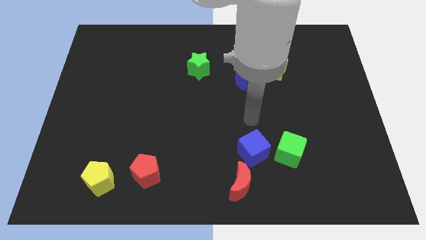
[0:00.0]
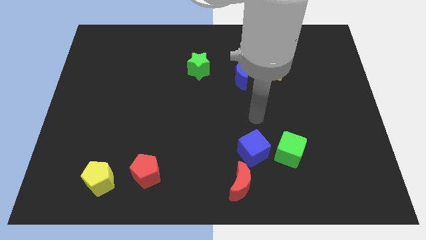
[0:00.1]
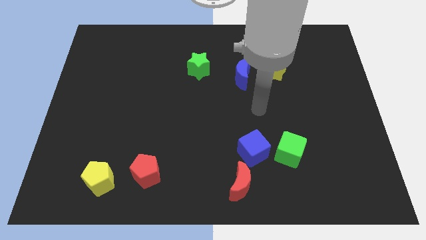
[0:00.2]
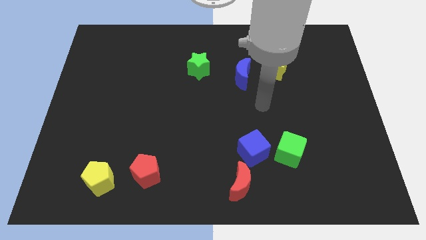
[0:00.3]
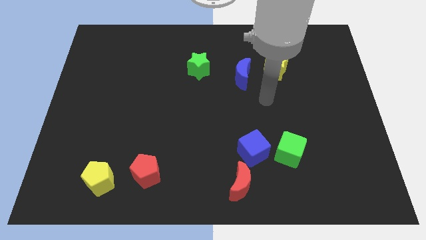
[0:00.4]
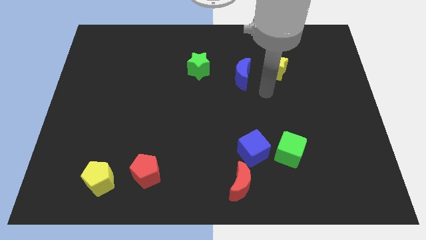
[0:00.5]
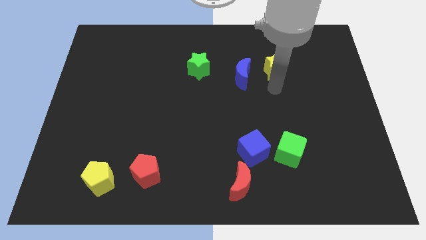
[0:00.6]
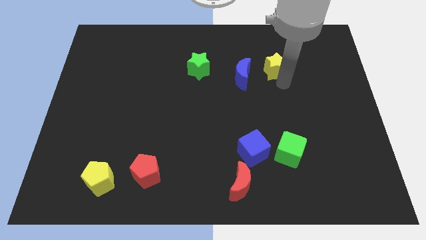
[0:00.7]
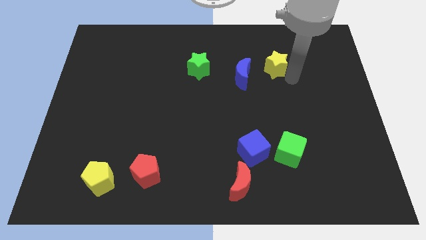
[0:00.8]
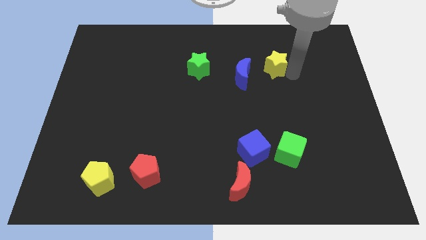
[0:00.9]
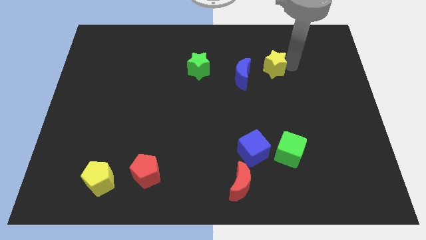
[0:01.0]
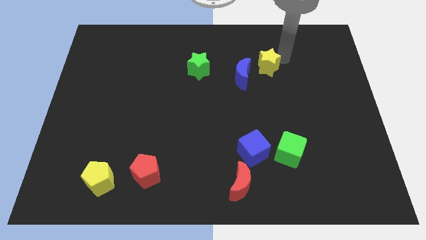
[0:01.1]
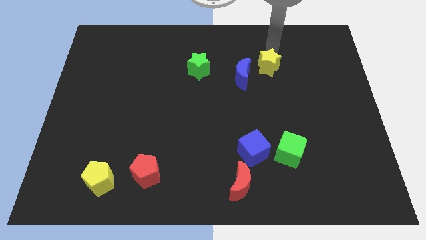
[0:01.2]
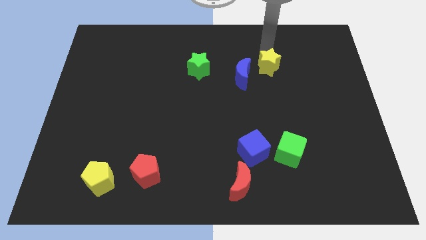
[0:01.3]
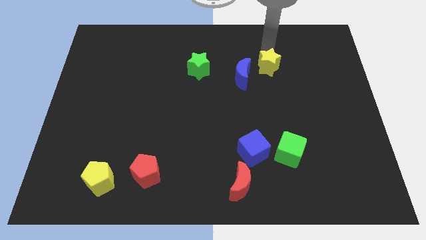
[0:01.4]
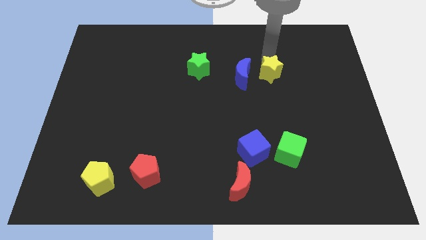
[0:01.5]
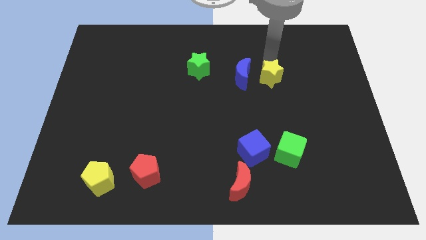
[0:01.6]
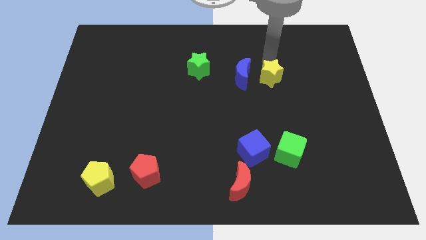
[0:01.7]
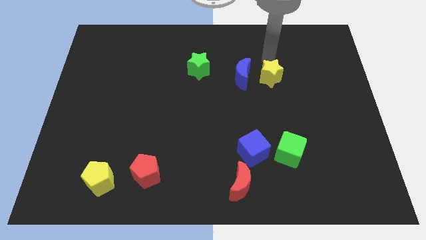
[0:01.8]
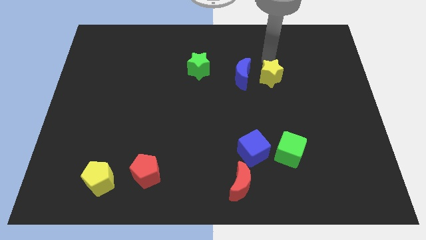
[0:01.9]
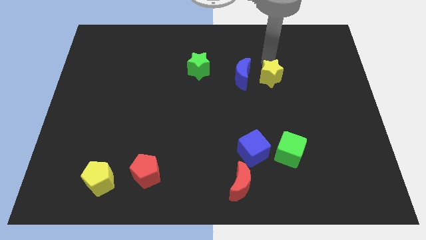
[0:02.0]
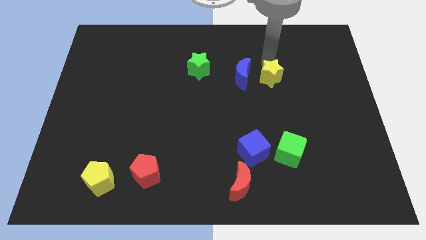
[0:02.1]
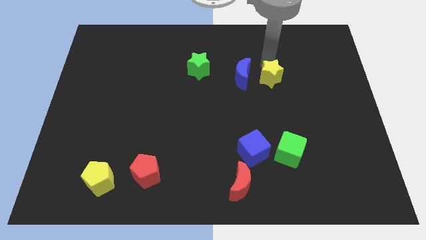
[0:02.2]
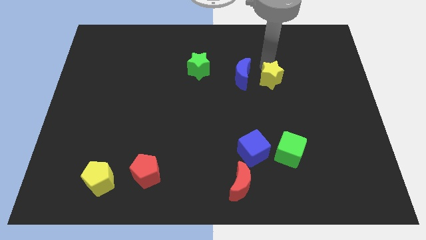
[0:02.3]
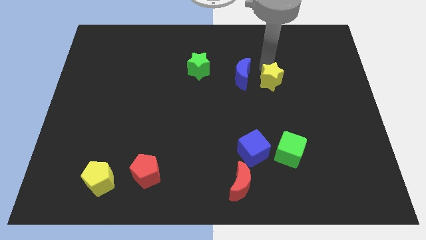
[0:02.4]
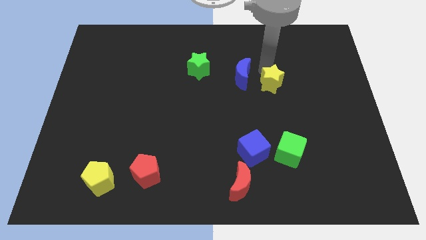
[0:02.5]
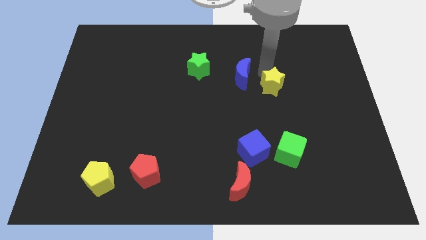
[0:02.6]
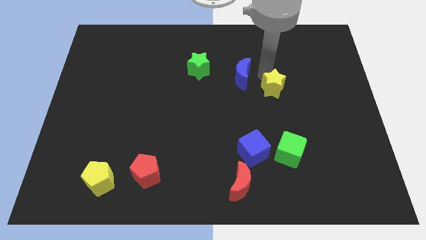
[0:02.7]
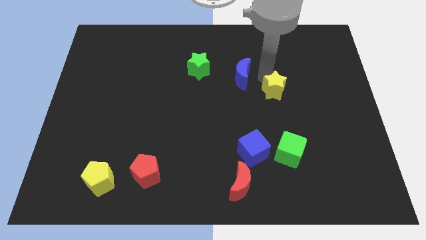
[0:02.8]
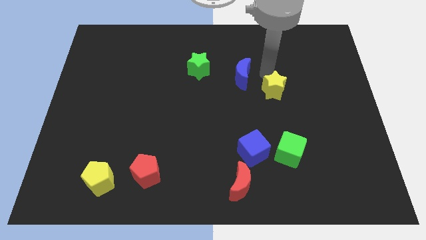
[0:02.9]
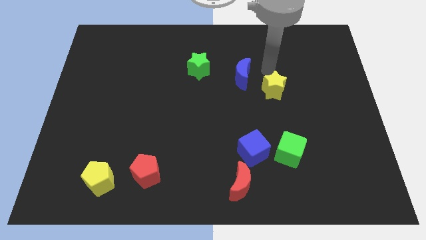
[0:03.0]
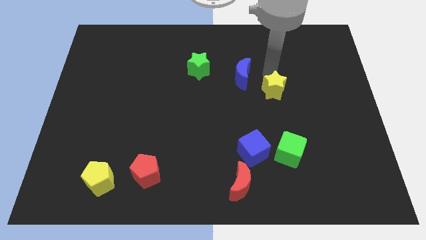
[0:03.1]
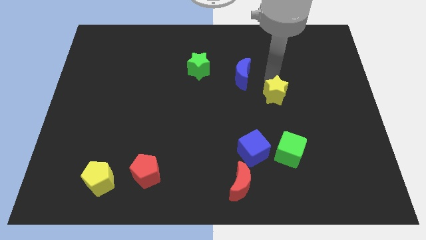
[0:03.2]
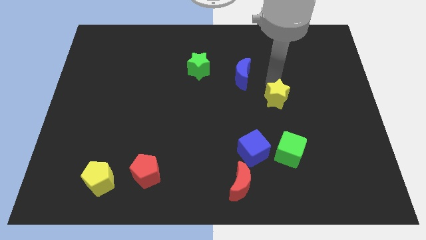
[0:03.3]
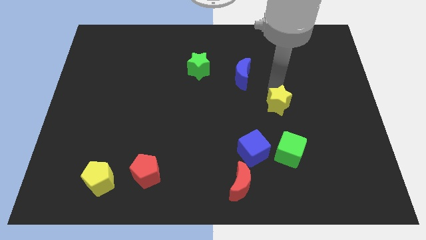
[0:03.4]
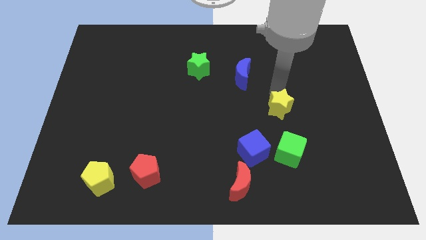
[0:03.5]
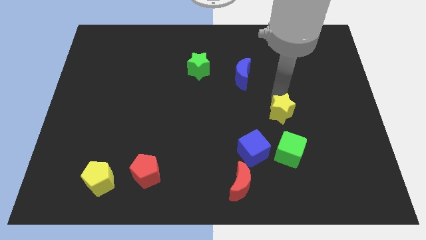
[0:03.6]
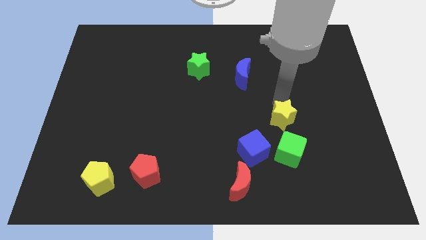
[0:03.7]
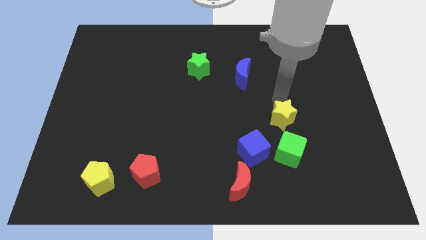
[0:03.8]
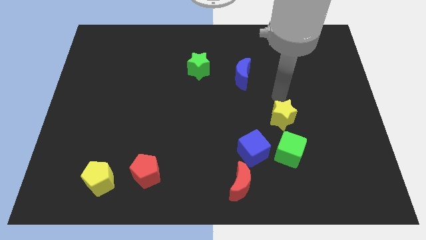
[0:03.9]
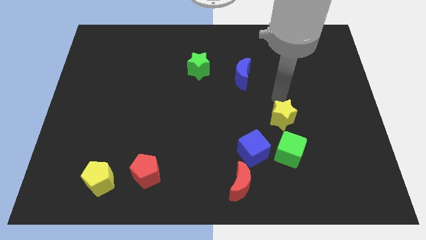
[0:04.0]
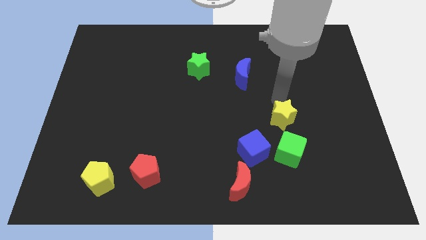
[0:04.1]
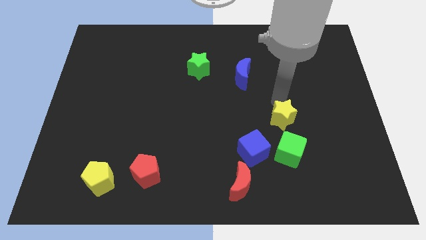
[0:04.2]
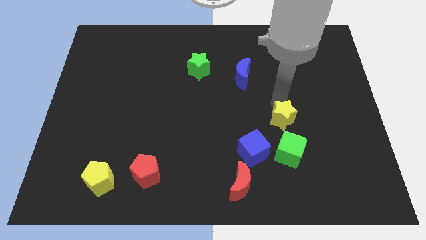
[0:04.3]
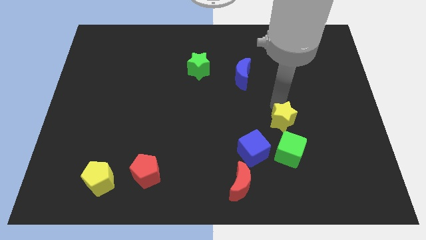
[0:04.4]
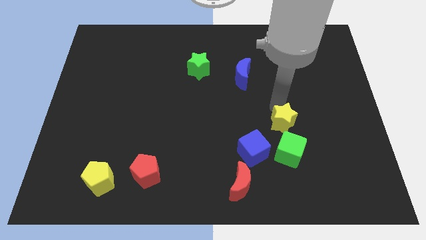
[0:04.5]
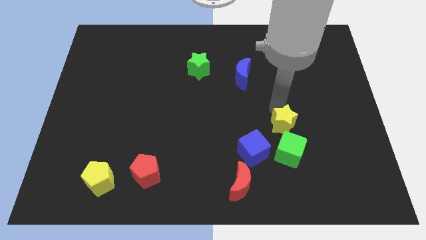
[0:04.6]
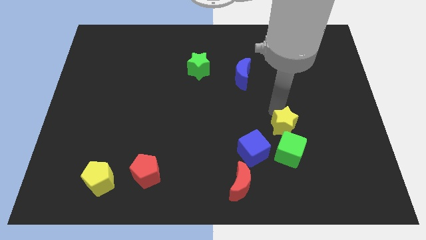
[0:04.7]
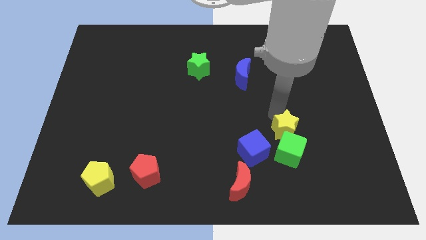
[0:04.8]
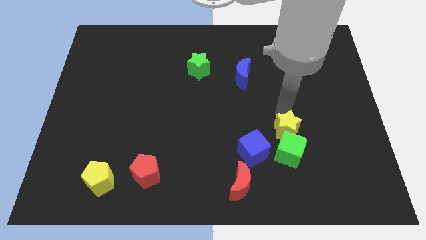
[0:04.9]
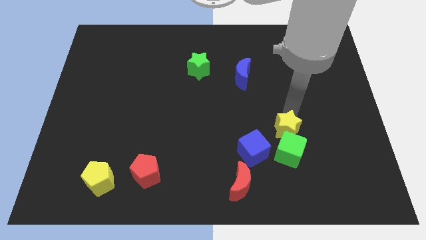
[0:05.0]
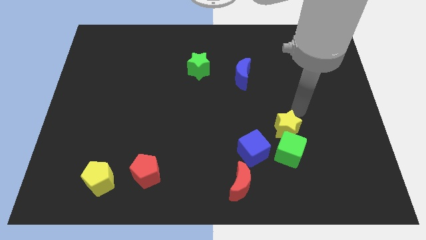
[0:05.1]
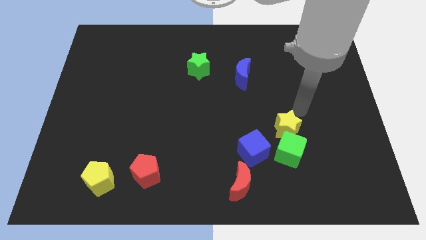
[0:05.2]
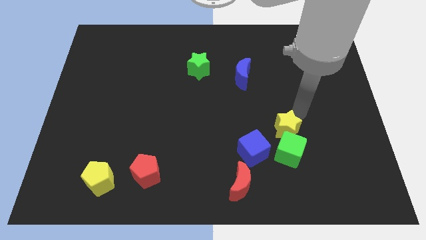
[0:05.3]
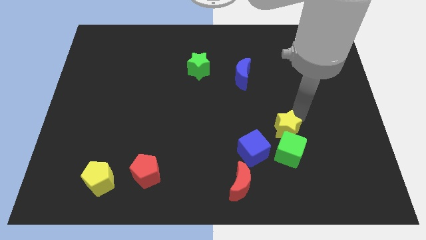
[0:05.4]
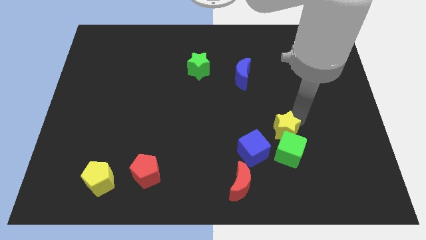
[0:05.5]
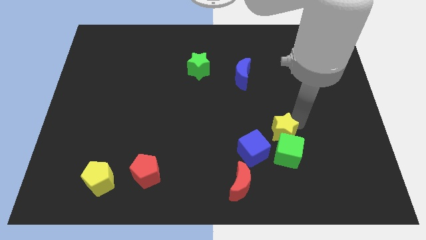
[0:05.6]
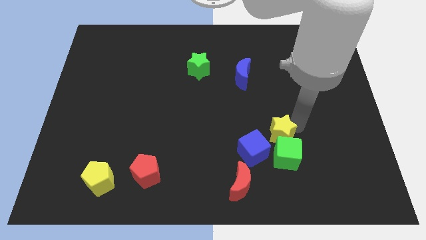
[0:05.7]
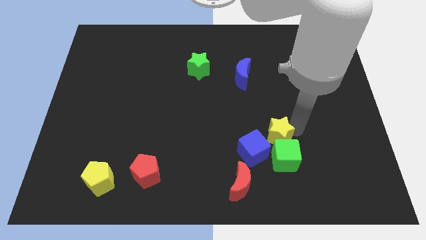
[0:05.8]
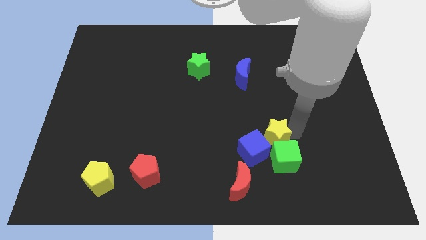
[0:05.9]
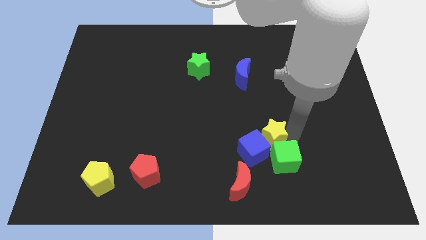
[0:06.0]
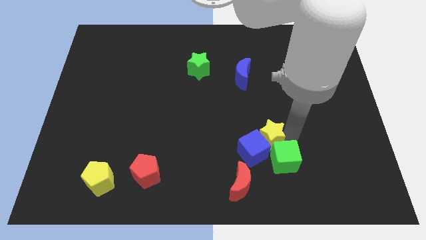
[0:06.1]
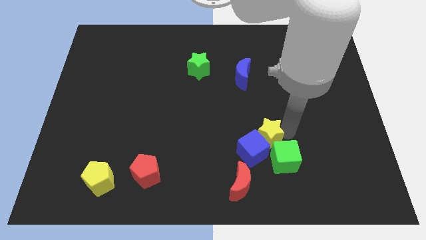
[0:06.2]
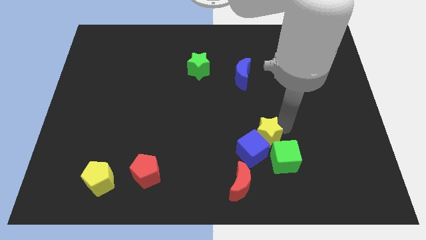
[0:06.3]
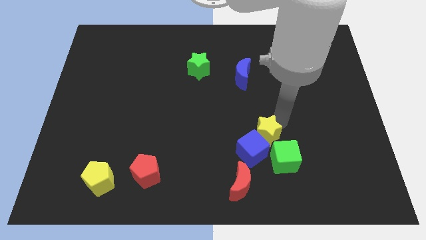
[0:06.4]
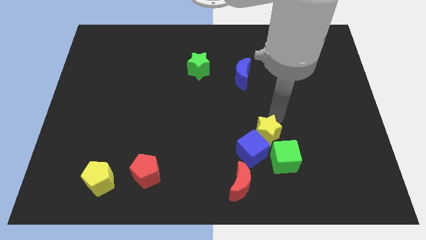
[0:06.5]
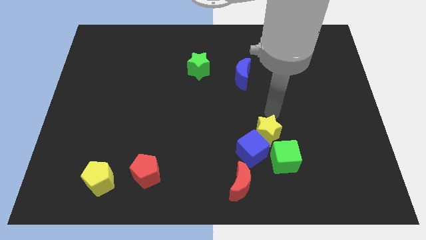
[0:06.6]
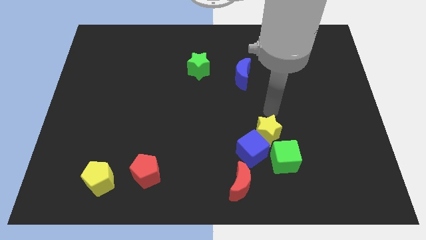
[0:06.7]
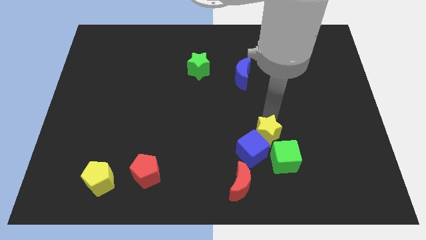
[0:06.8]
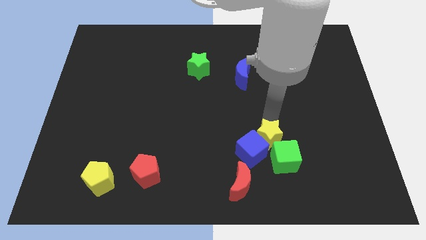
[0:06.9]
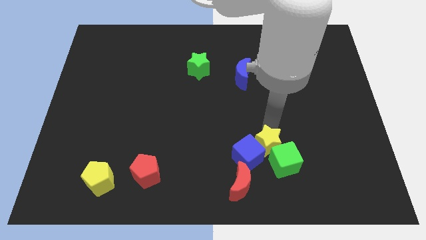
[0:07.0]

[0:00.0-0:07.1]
put the yellow star to the top right of the red moon
